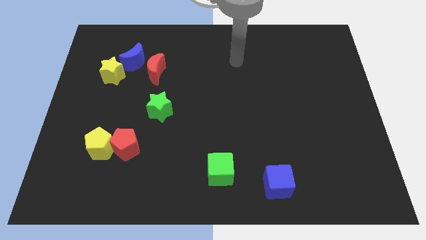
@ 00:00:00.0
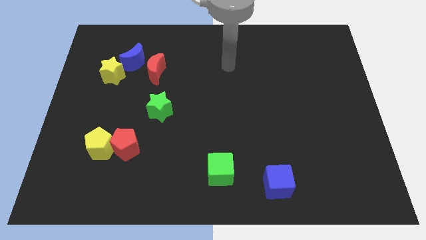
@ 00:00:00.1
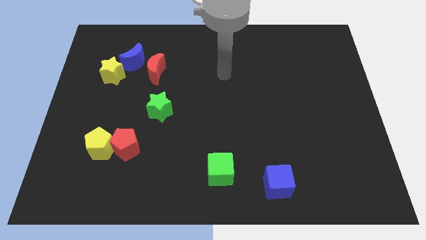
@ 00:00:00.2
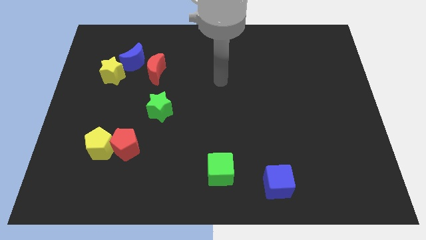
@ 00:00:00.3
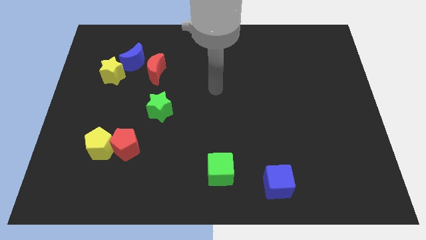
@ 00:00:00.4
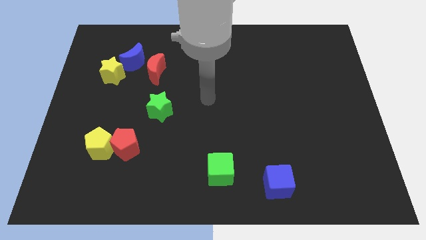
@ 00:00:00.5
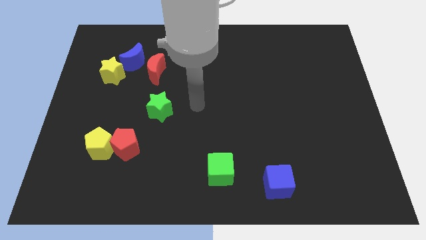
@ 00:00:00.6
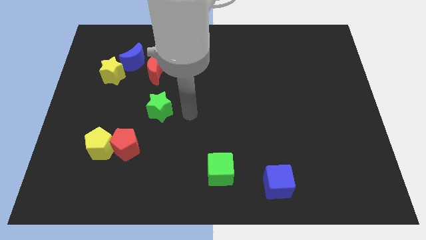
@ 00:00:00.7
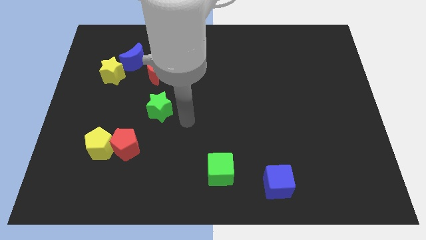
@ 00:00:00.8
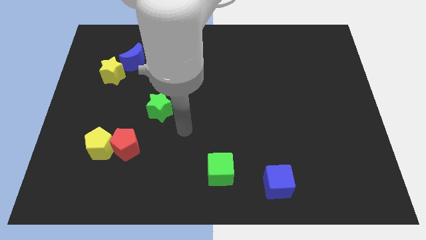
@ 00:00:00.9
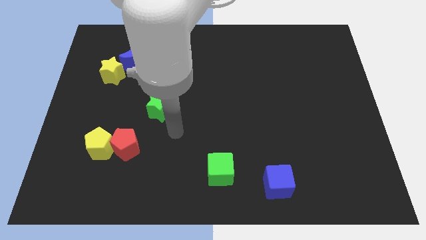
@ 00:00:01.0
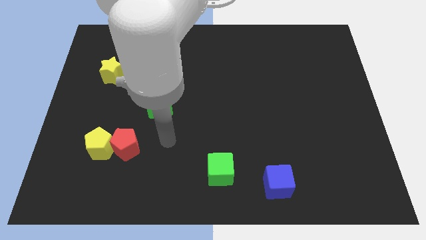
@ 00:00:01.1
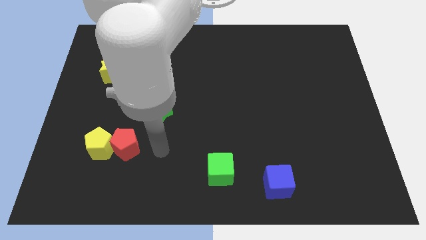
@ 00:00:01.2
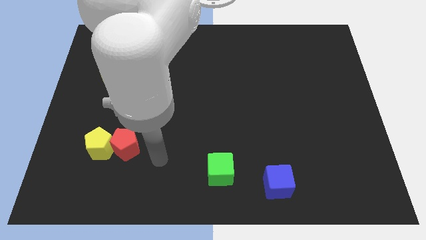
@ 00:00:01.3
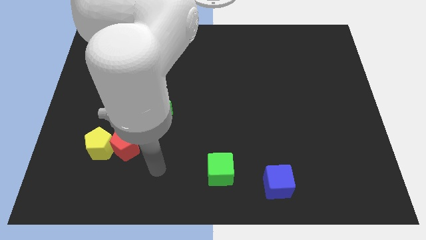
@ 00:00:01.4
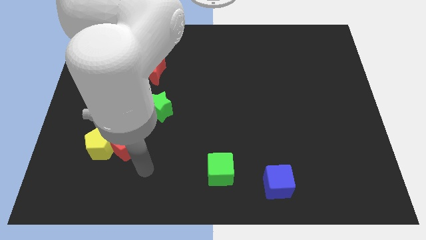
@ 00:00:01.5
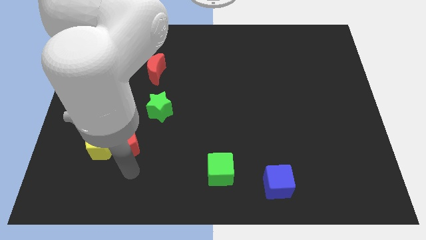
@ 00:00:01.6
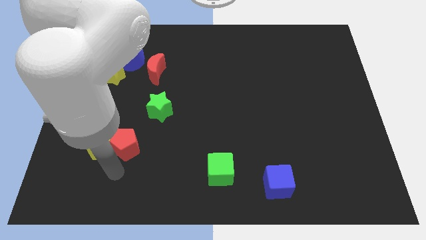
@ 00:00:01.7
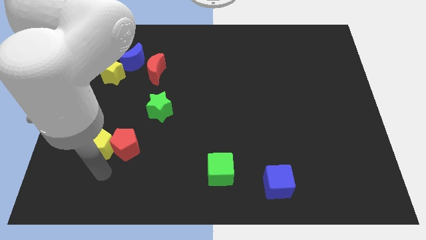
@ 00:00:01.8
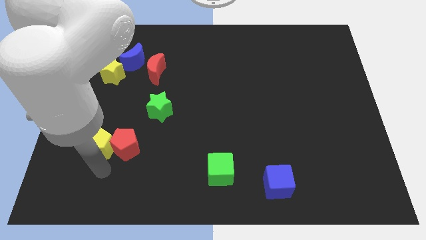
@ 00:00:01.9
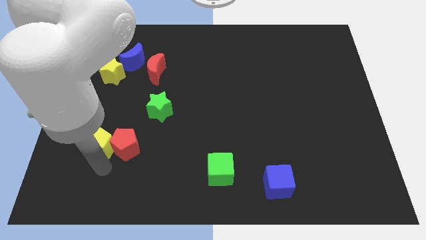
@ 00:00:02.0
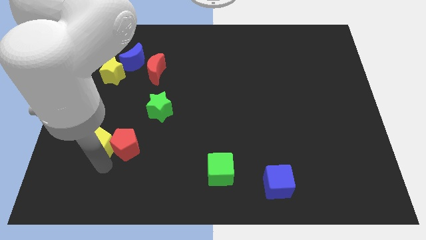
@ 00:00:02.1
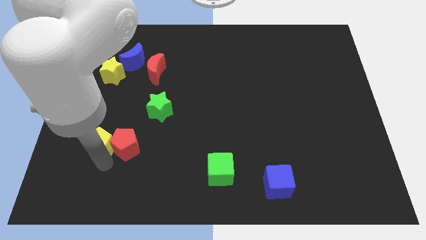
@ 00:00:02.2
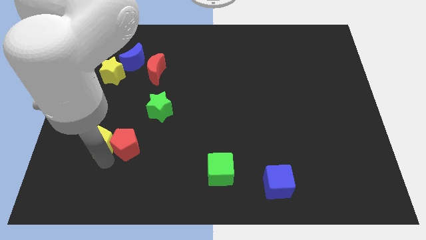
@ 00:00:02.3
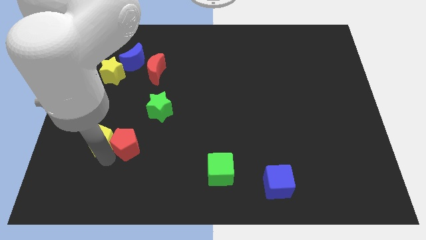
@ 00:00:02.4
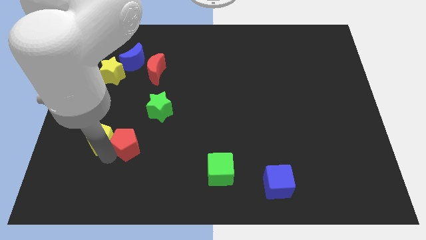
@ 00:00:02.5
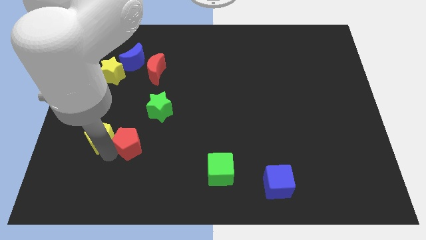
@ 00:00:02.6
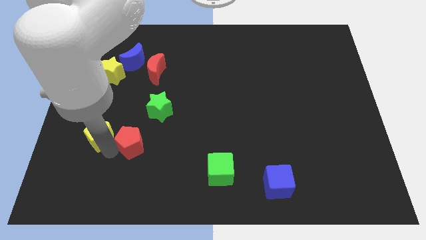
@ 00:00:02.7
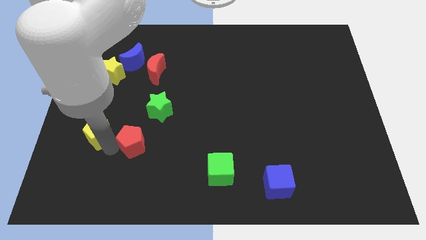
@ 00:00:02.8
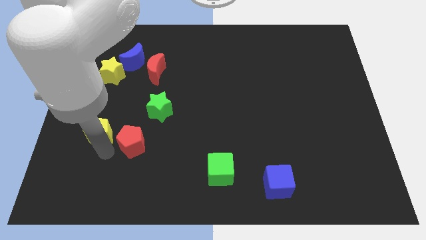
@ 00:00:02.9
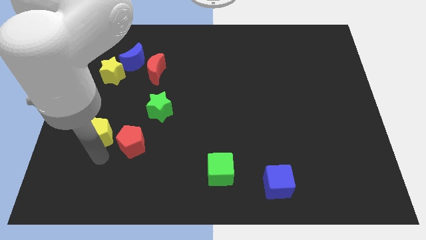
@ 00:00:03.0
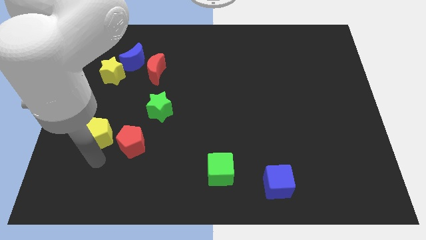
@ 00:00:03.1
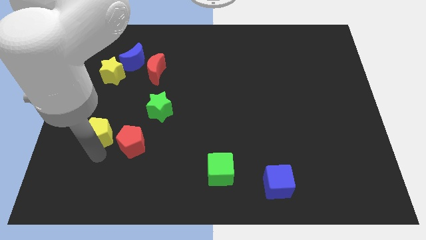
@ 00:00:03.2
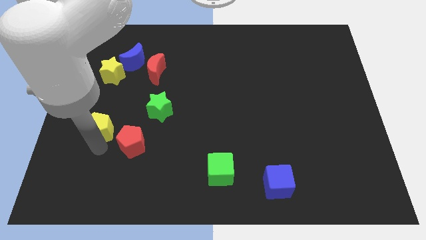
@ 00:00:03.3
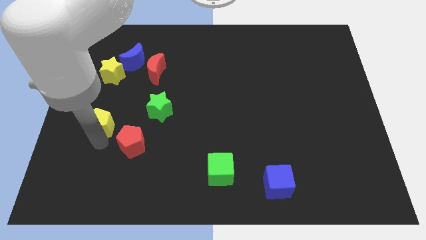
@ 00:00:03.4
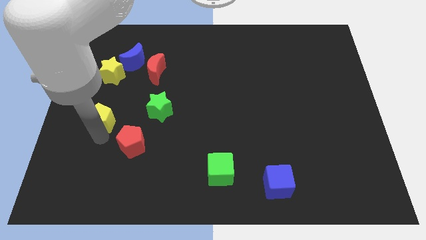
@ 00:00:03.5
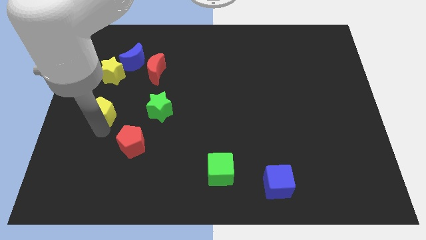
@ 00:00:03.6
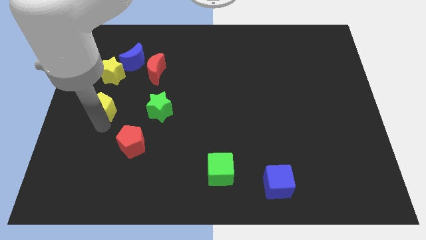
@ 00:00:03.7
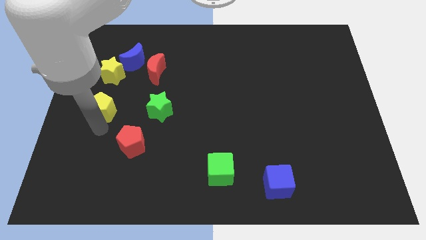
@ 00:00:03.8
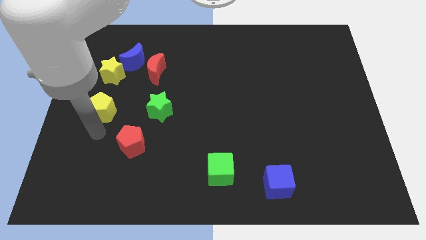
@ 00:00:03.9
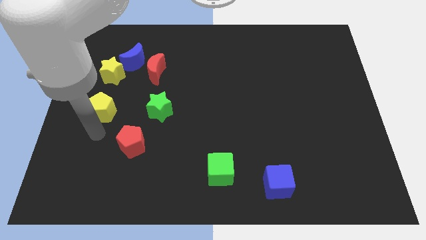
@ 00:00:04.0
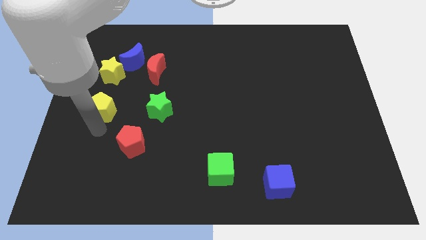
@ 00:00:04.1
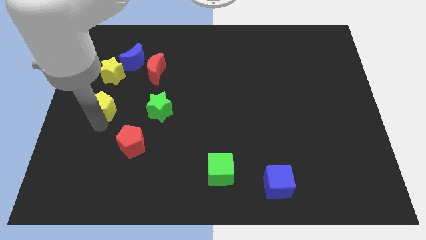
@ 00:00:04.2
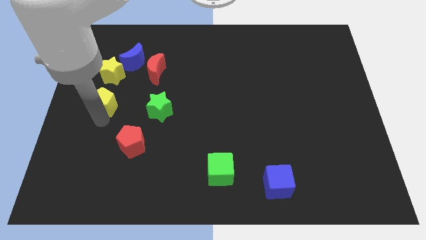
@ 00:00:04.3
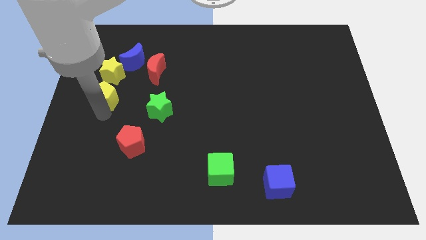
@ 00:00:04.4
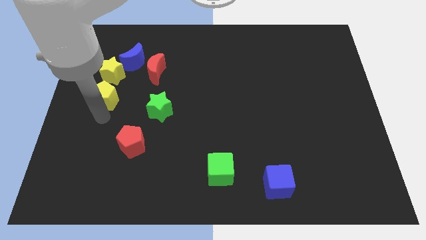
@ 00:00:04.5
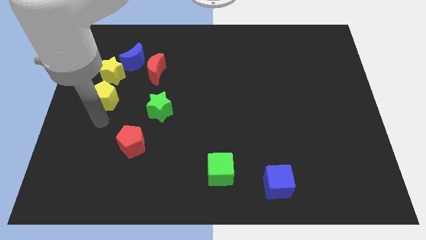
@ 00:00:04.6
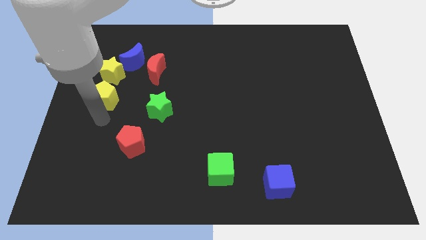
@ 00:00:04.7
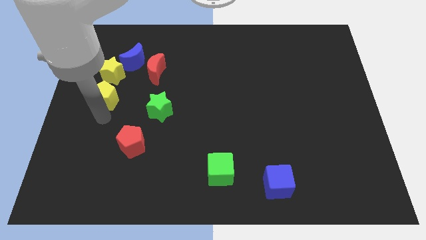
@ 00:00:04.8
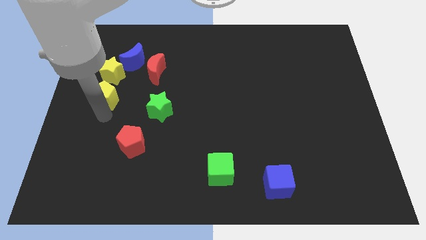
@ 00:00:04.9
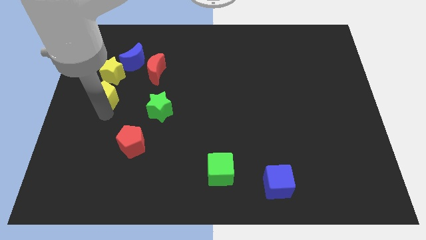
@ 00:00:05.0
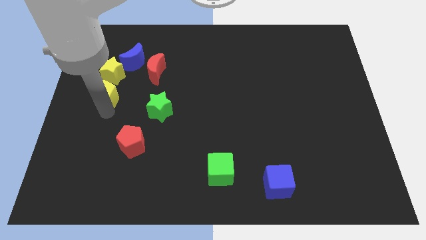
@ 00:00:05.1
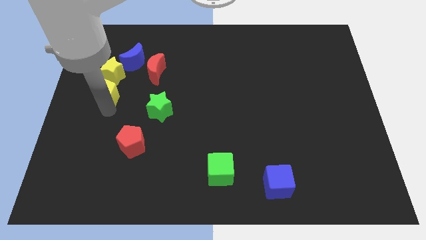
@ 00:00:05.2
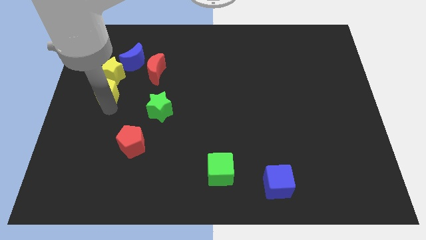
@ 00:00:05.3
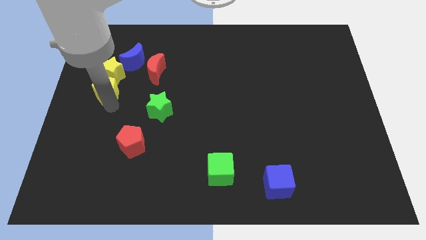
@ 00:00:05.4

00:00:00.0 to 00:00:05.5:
push the yellow pentagon towards the yellow star
